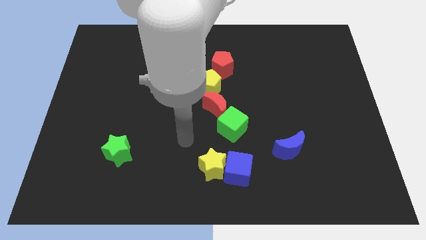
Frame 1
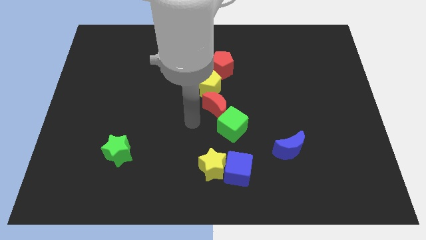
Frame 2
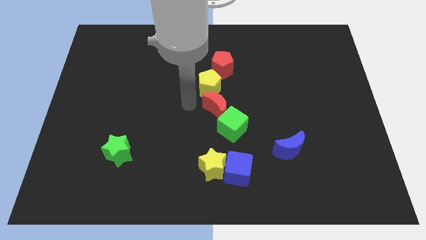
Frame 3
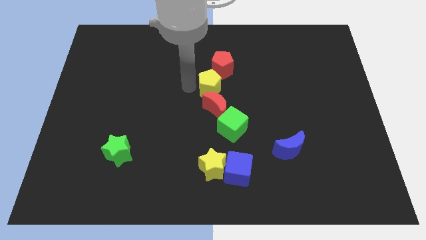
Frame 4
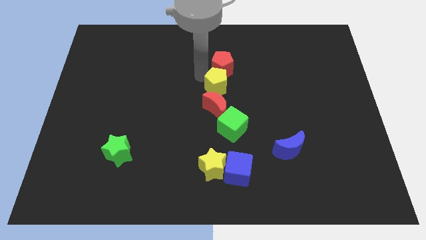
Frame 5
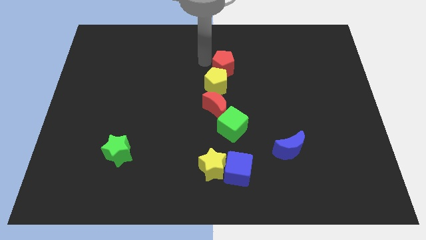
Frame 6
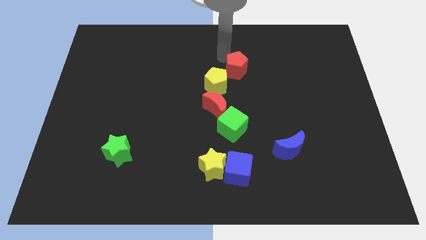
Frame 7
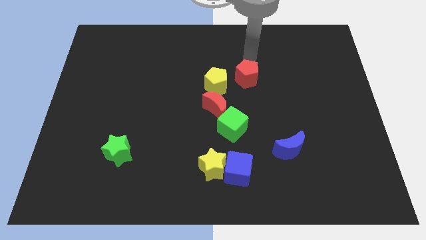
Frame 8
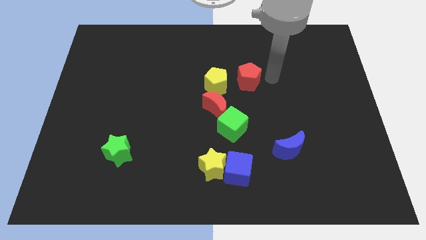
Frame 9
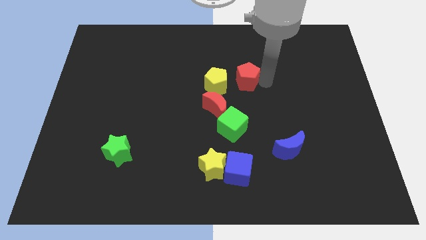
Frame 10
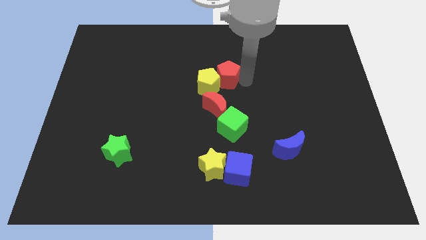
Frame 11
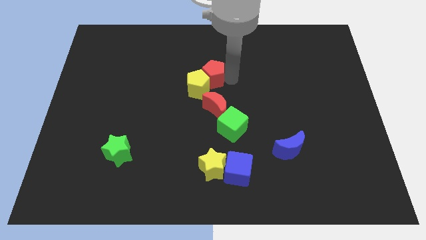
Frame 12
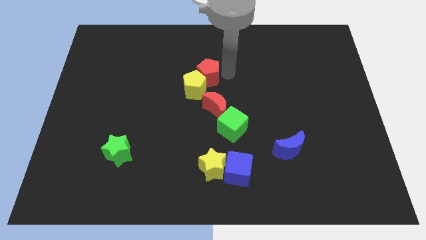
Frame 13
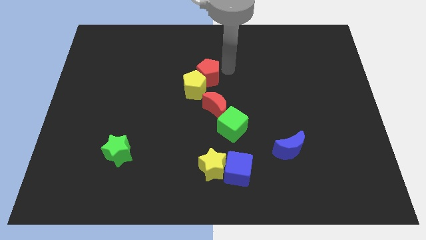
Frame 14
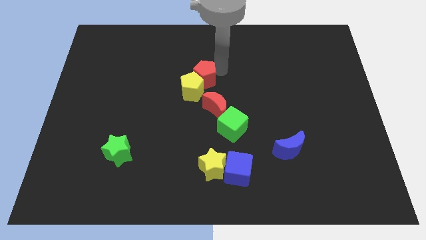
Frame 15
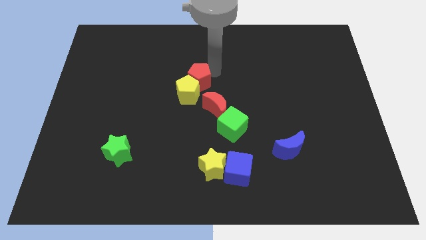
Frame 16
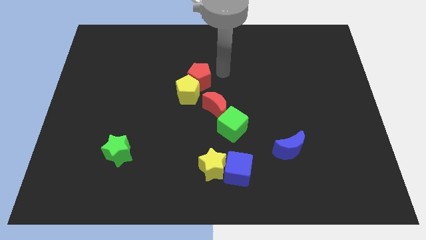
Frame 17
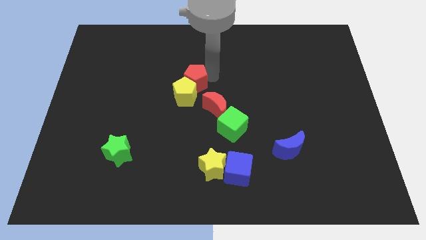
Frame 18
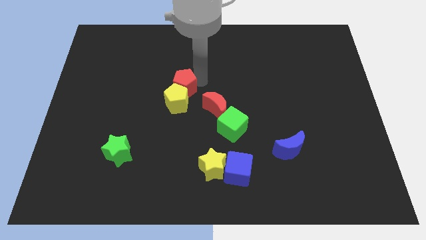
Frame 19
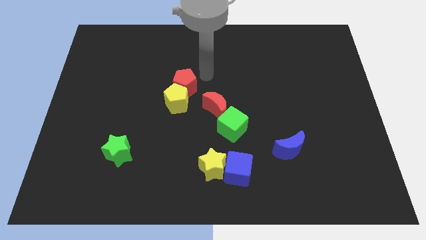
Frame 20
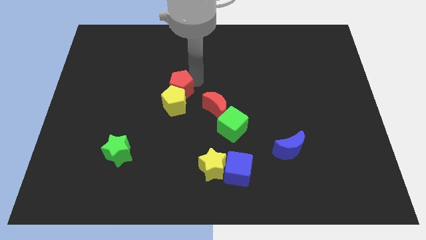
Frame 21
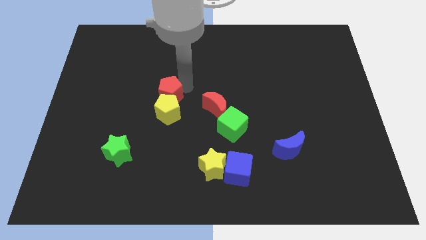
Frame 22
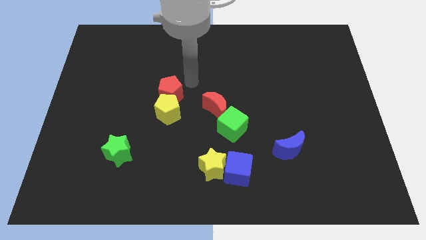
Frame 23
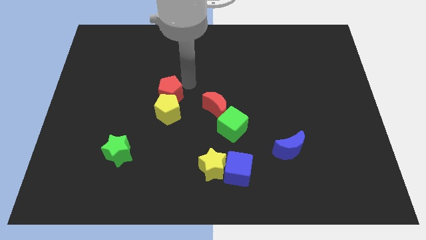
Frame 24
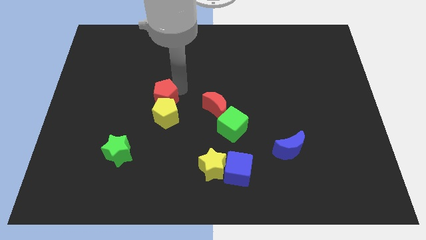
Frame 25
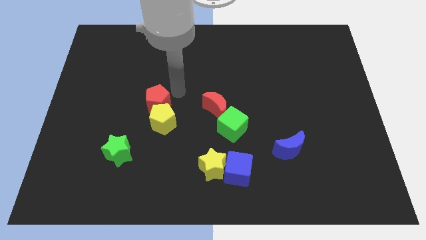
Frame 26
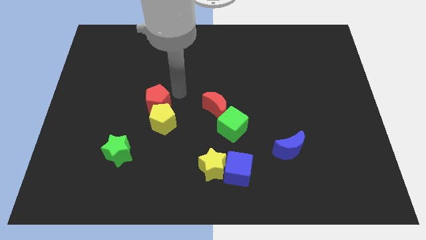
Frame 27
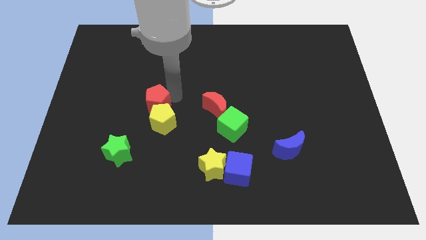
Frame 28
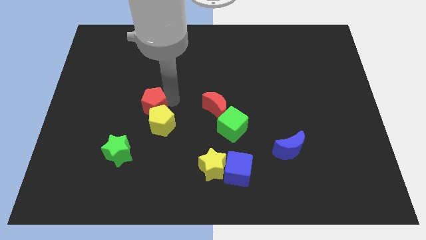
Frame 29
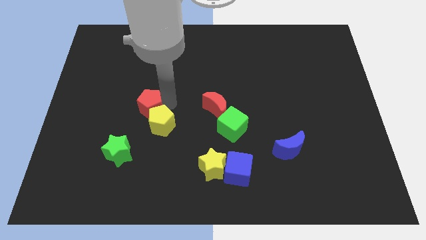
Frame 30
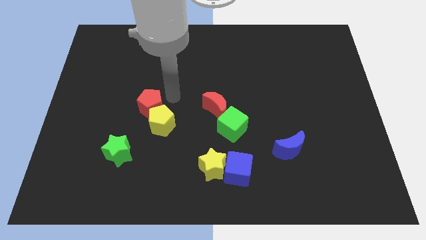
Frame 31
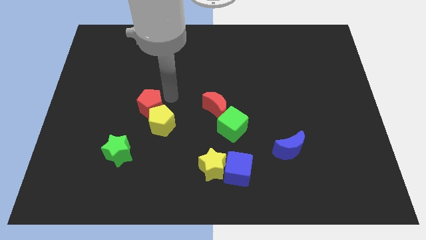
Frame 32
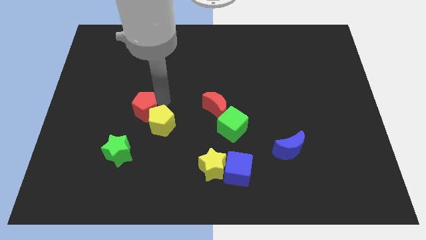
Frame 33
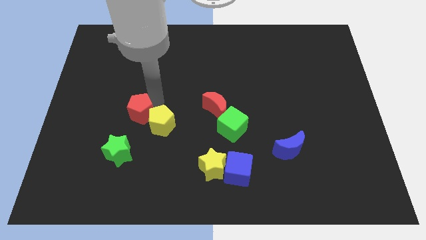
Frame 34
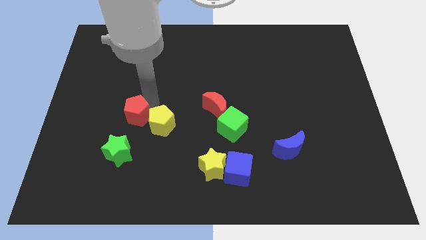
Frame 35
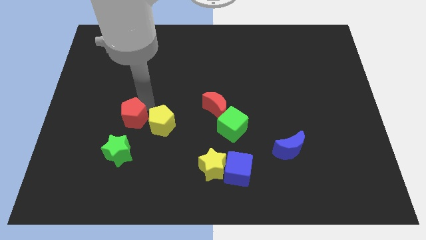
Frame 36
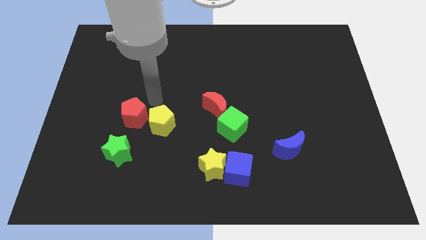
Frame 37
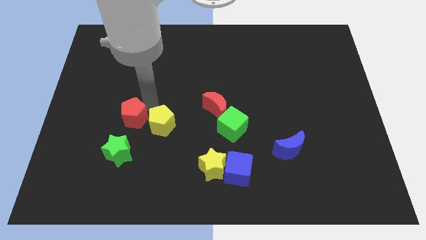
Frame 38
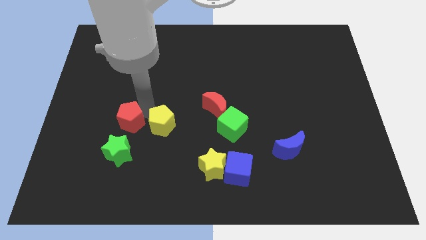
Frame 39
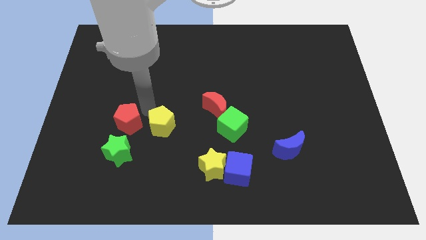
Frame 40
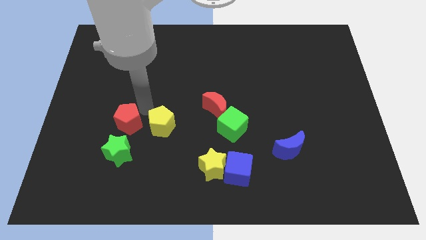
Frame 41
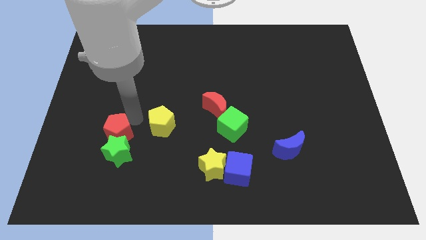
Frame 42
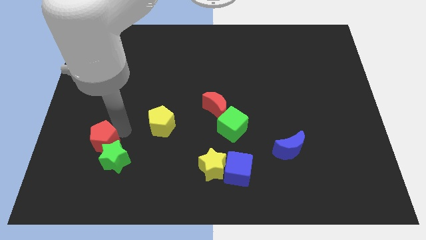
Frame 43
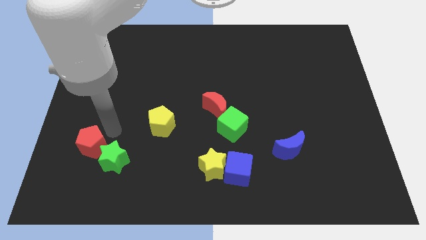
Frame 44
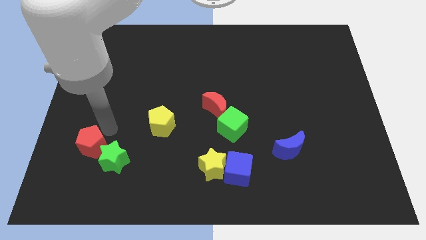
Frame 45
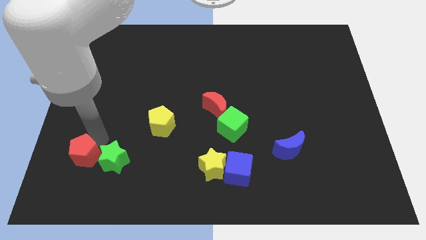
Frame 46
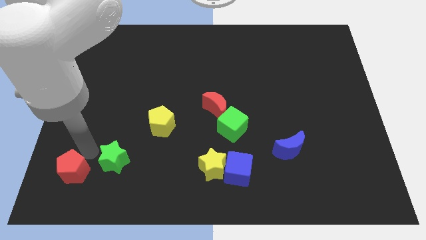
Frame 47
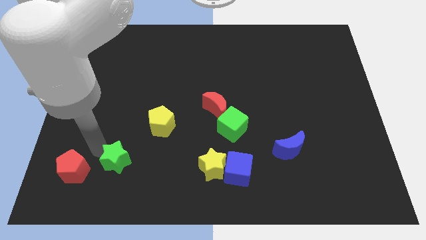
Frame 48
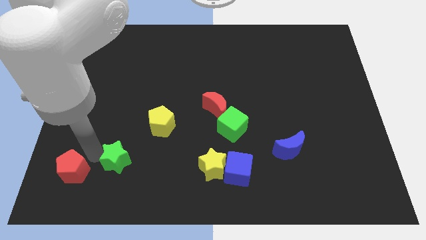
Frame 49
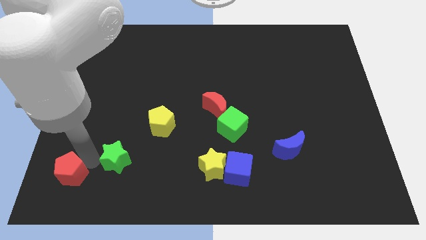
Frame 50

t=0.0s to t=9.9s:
push the red pentagon to the lower left corner

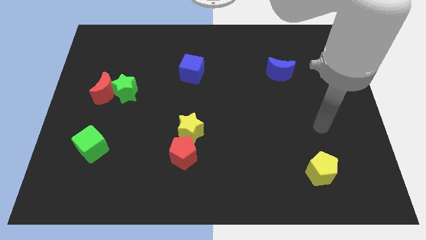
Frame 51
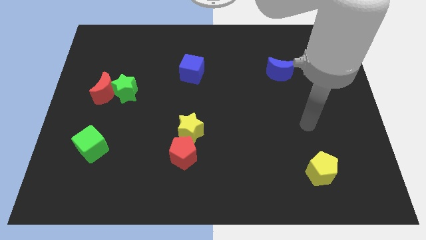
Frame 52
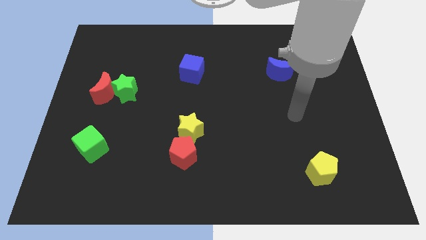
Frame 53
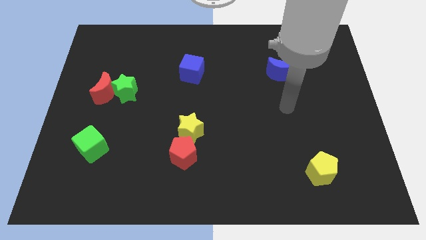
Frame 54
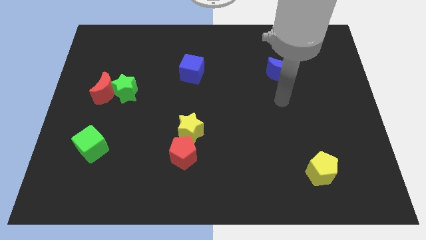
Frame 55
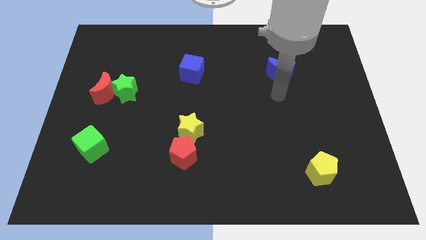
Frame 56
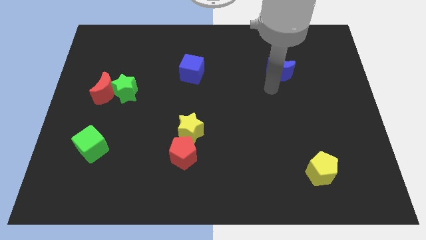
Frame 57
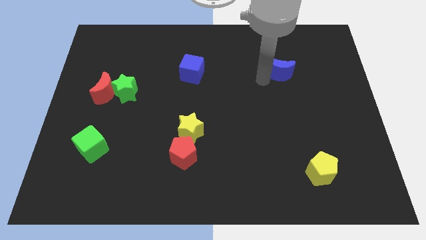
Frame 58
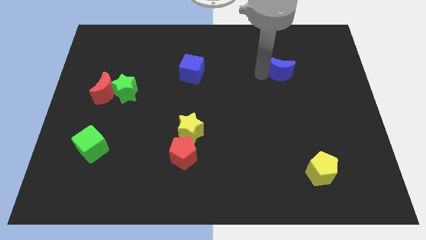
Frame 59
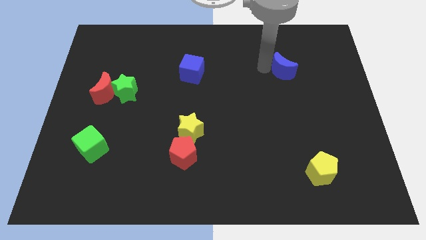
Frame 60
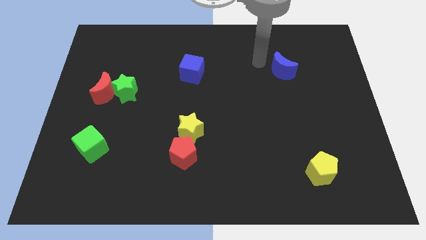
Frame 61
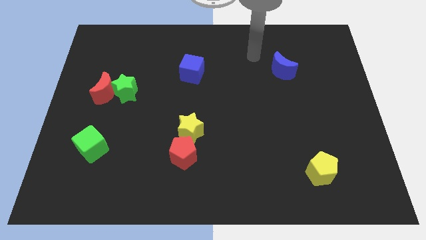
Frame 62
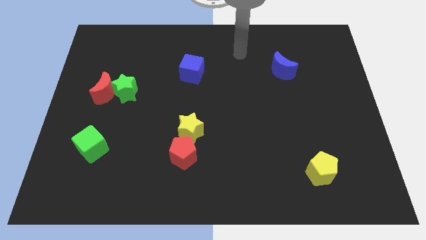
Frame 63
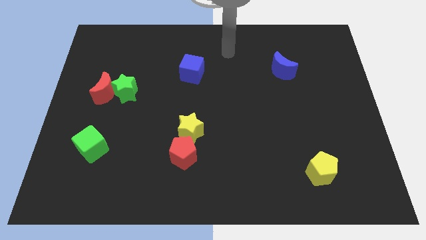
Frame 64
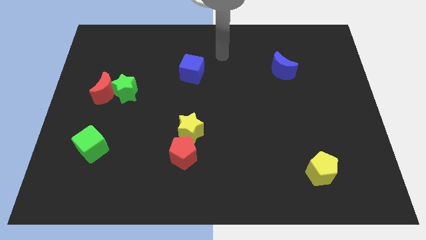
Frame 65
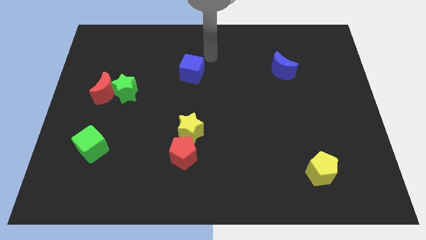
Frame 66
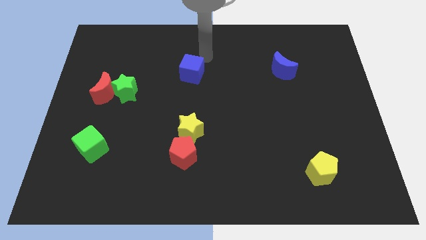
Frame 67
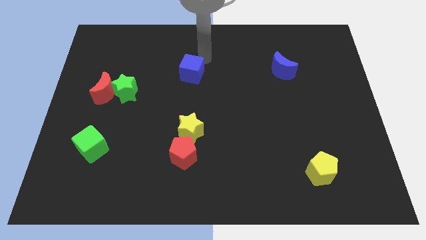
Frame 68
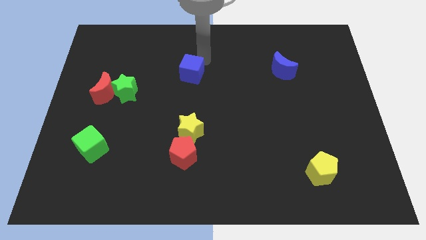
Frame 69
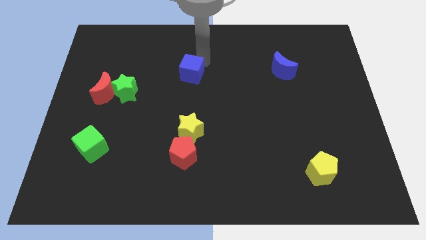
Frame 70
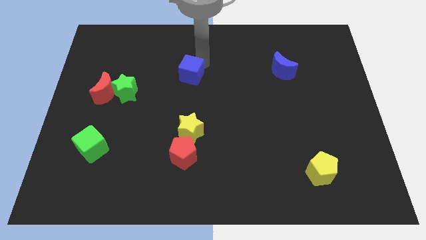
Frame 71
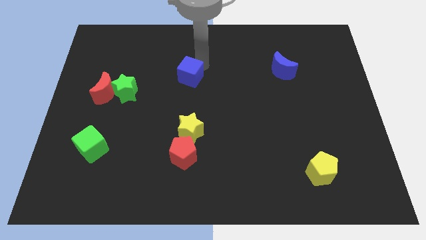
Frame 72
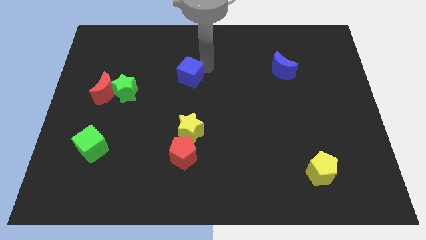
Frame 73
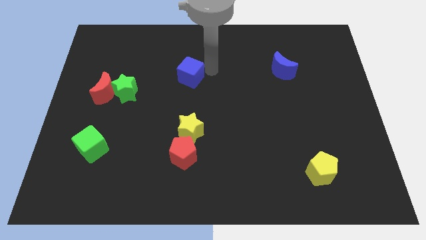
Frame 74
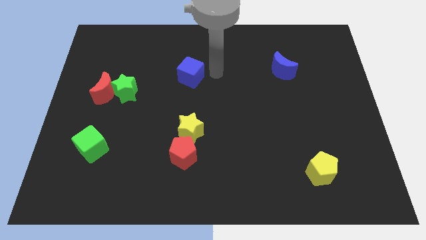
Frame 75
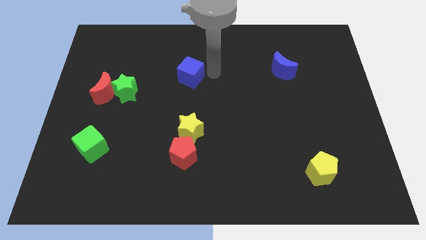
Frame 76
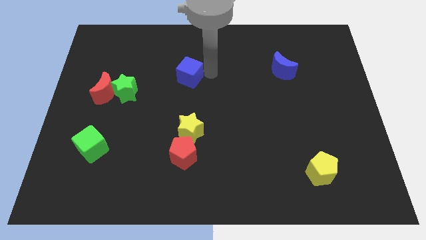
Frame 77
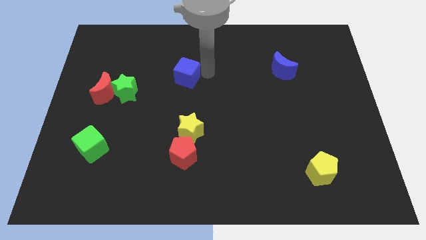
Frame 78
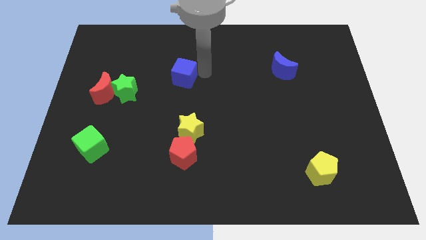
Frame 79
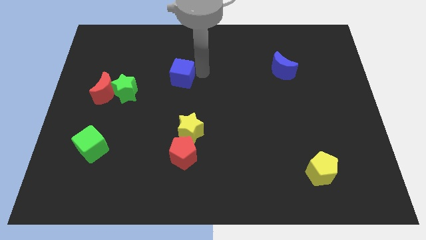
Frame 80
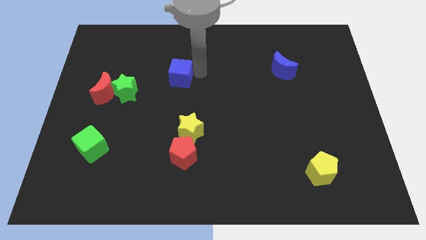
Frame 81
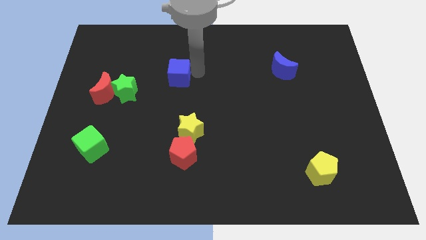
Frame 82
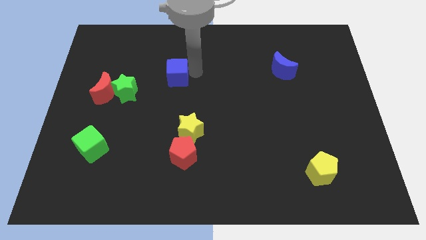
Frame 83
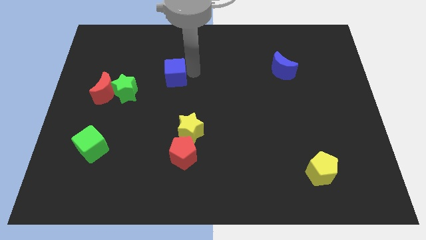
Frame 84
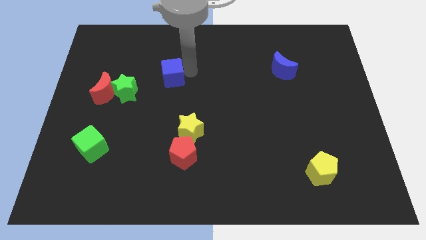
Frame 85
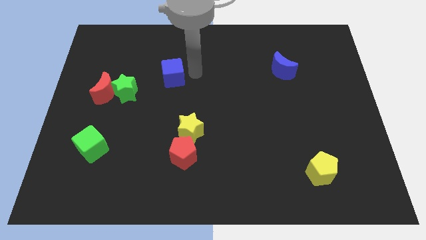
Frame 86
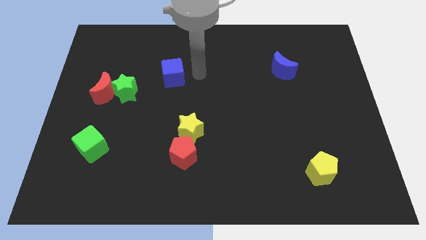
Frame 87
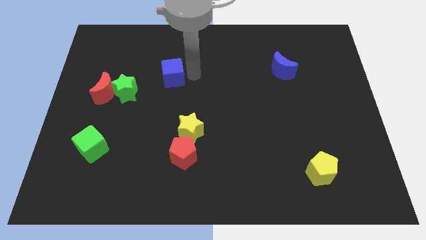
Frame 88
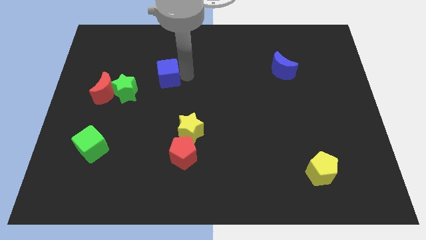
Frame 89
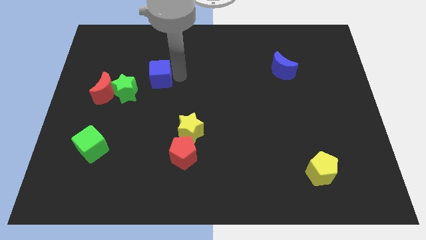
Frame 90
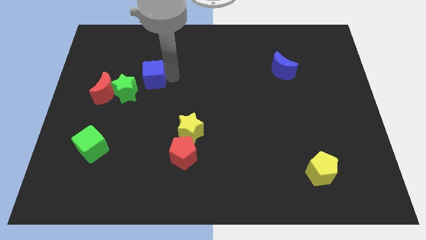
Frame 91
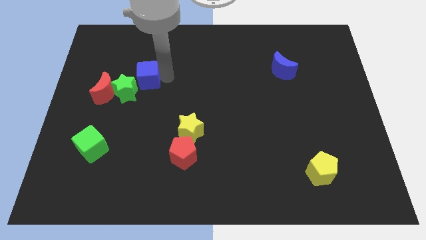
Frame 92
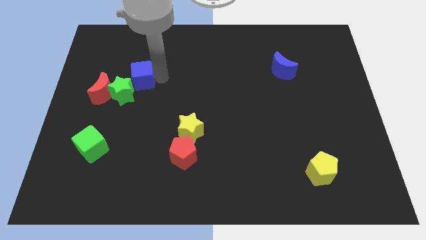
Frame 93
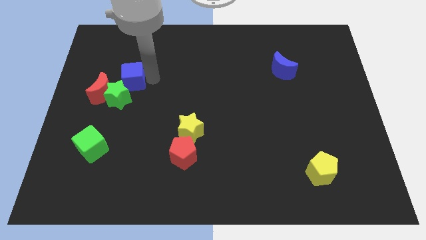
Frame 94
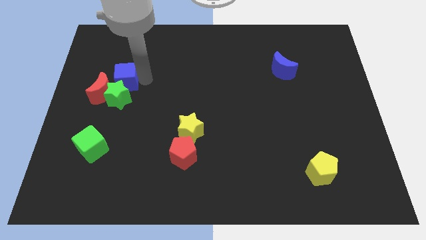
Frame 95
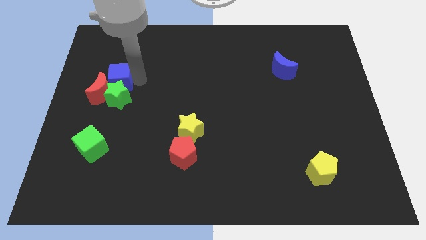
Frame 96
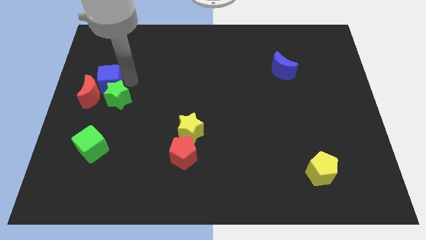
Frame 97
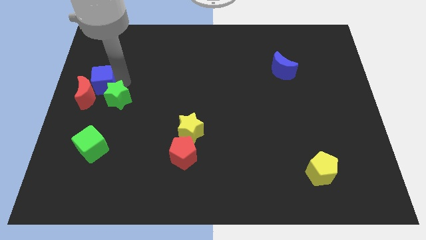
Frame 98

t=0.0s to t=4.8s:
slide the blue cube to the left side
